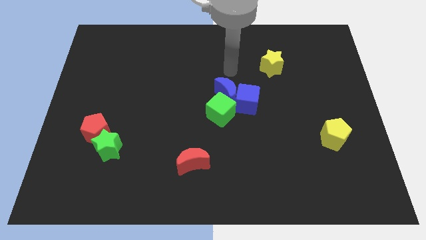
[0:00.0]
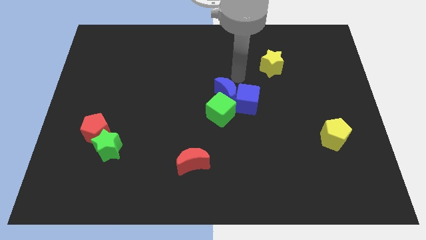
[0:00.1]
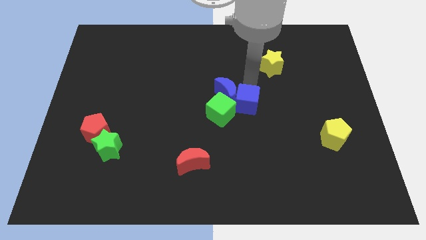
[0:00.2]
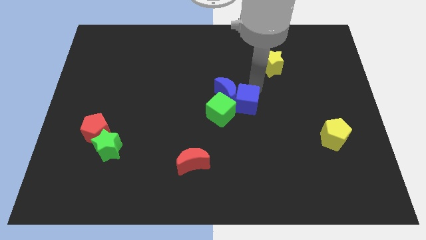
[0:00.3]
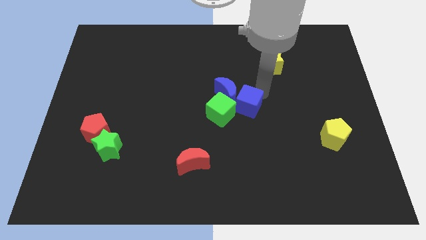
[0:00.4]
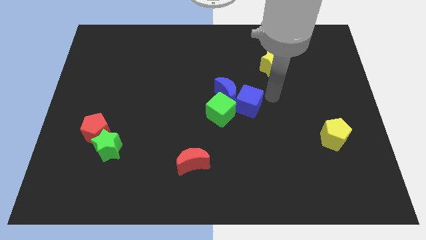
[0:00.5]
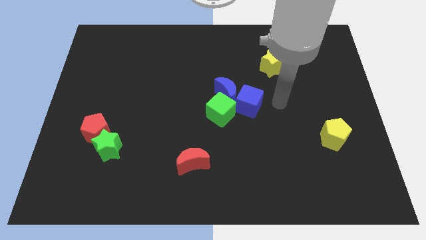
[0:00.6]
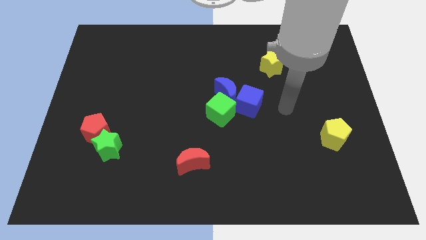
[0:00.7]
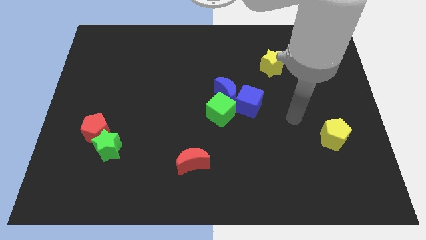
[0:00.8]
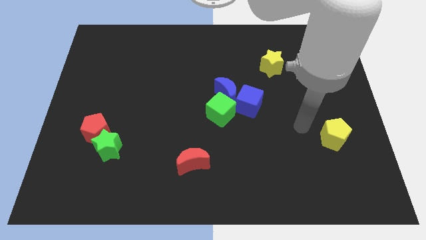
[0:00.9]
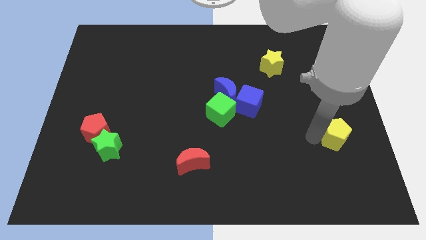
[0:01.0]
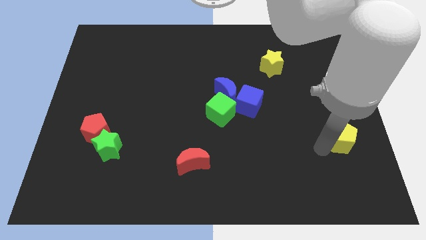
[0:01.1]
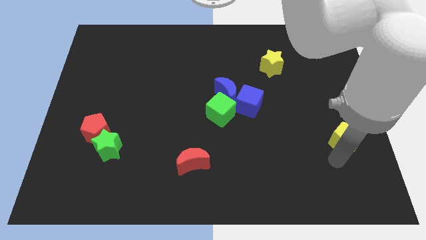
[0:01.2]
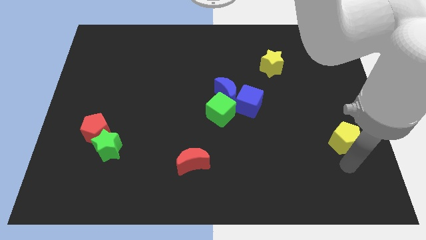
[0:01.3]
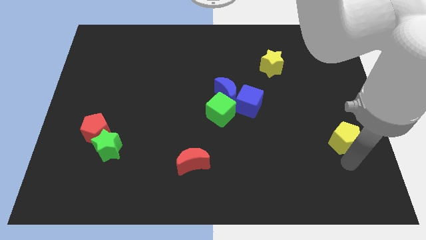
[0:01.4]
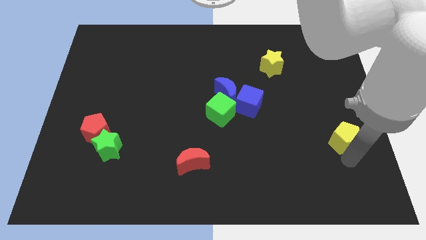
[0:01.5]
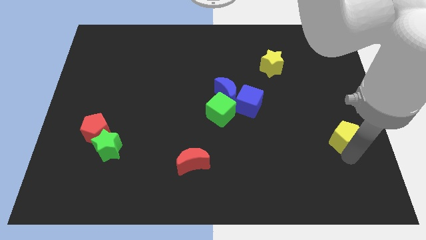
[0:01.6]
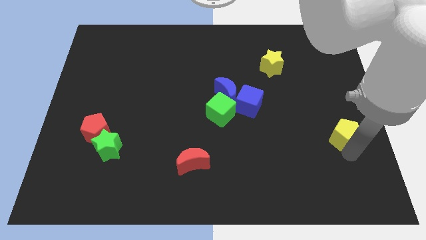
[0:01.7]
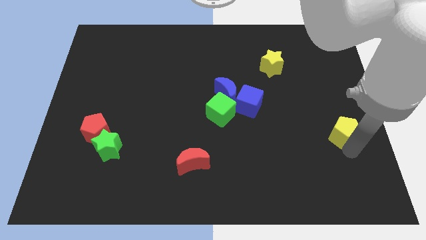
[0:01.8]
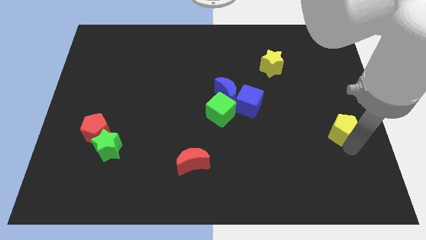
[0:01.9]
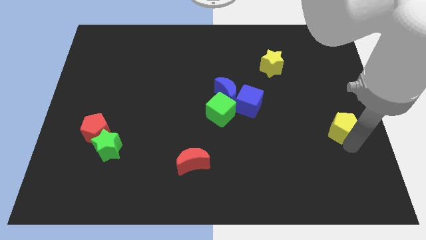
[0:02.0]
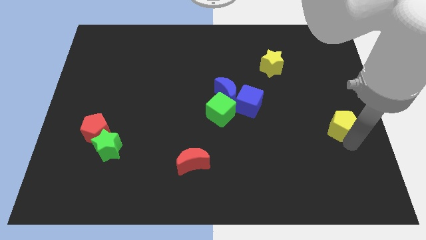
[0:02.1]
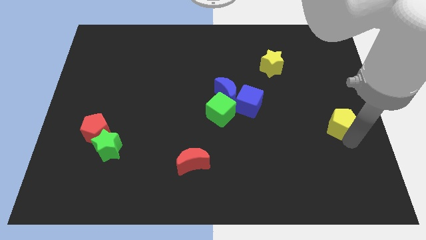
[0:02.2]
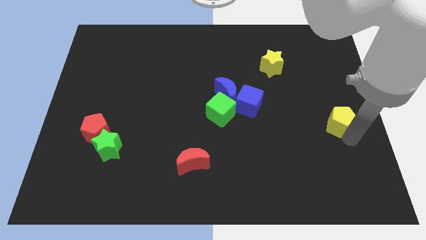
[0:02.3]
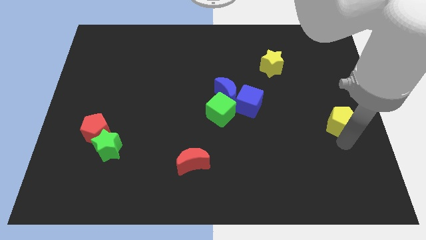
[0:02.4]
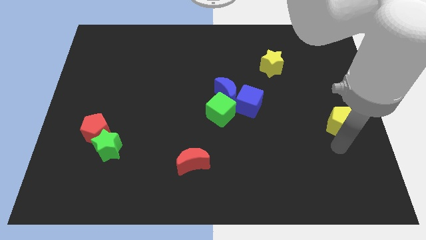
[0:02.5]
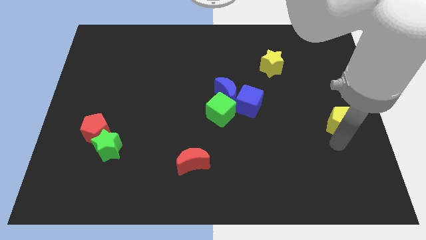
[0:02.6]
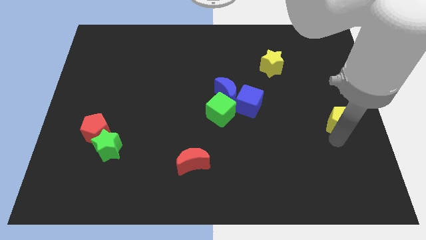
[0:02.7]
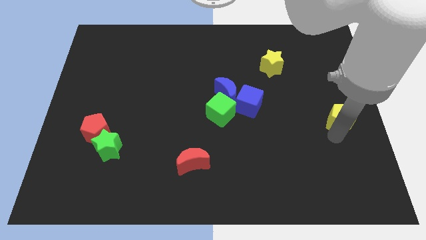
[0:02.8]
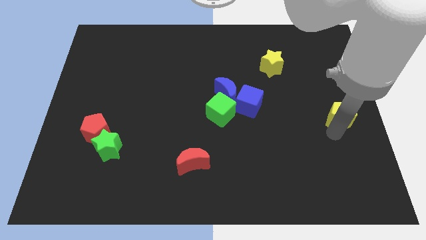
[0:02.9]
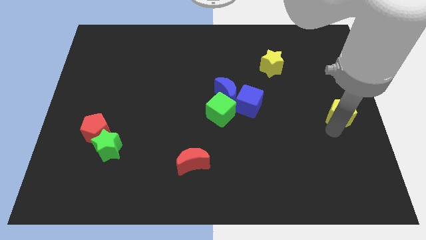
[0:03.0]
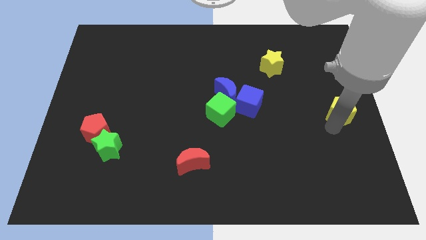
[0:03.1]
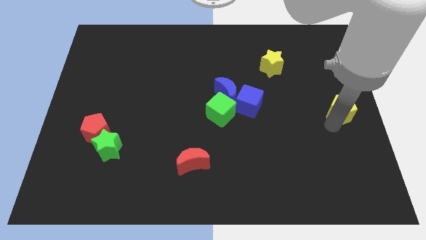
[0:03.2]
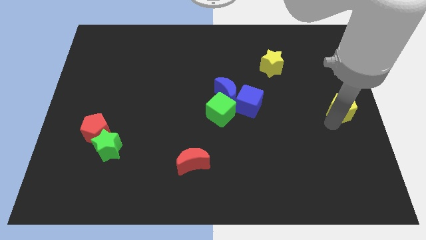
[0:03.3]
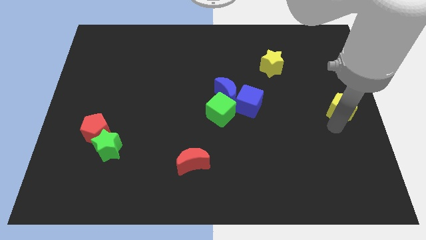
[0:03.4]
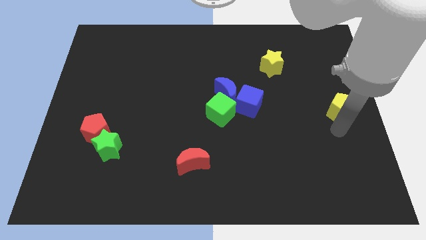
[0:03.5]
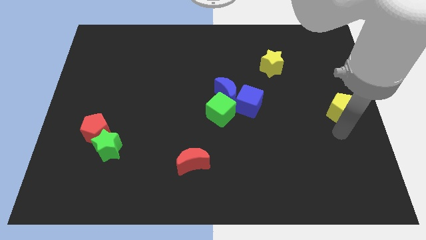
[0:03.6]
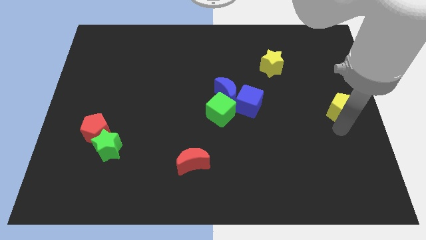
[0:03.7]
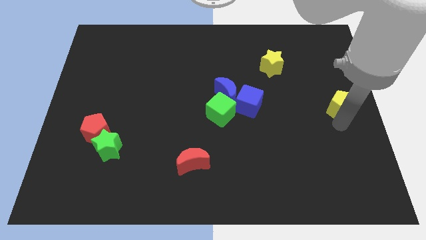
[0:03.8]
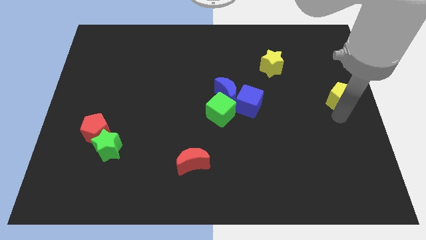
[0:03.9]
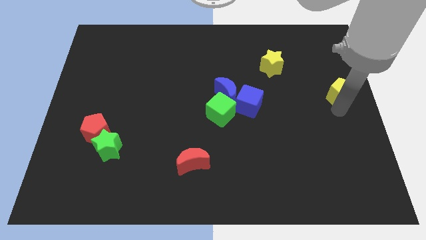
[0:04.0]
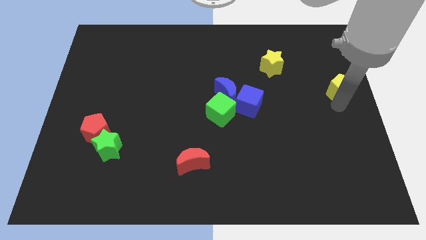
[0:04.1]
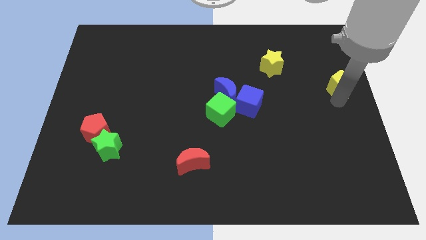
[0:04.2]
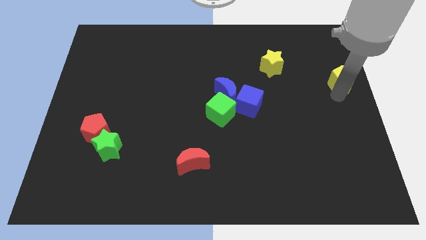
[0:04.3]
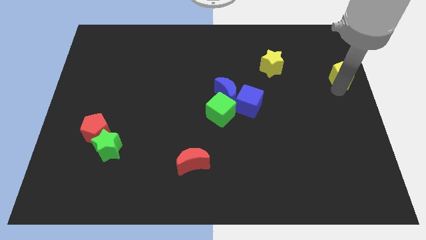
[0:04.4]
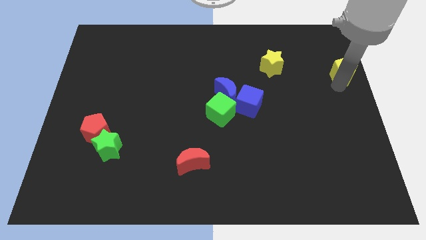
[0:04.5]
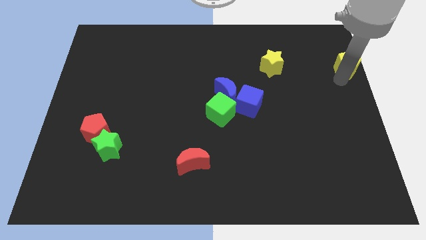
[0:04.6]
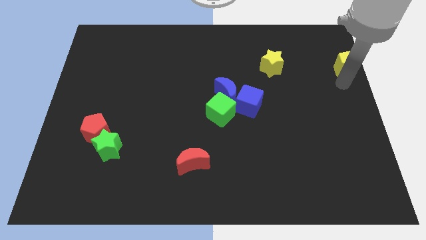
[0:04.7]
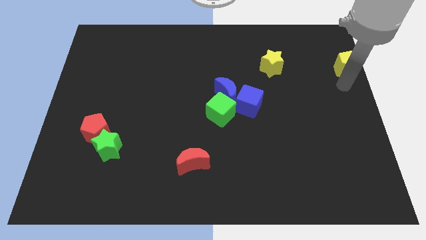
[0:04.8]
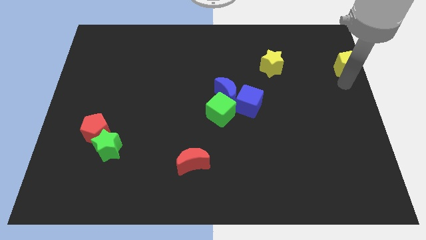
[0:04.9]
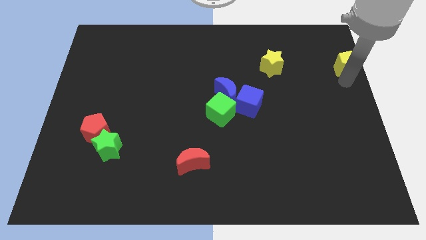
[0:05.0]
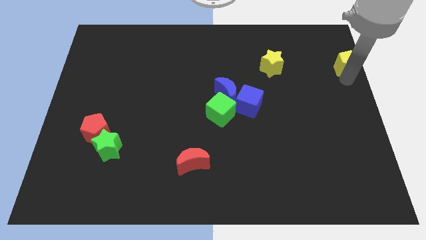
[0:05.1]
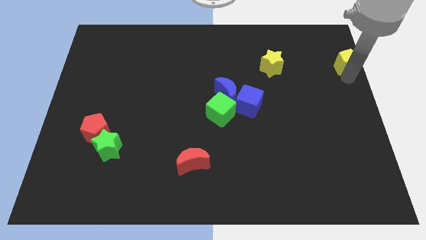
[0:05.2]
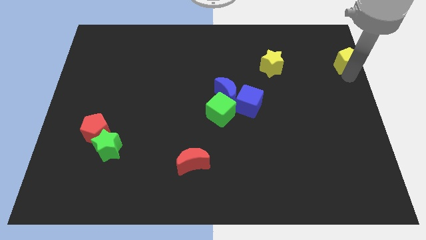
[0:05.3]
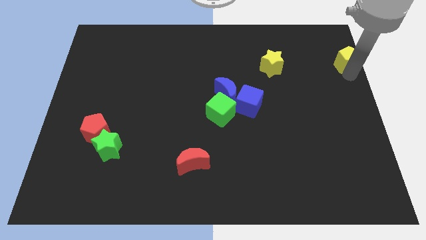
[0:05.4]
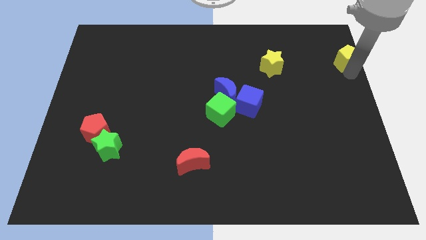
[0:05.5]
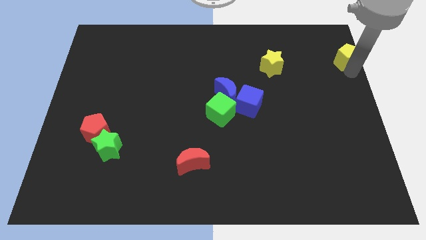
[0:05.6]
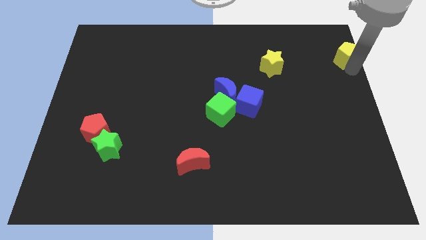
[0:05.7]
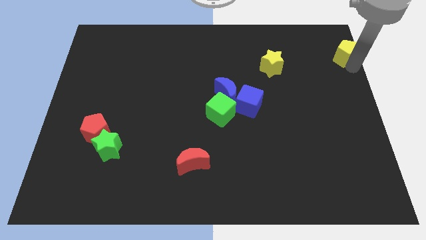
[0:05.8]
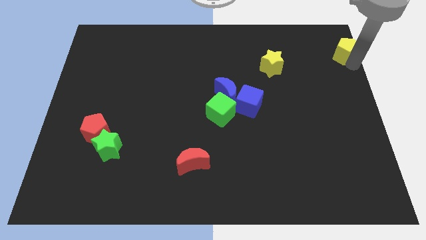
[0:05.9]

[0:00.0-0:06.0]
put the yellow pentagon to the top right corner

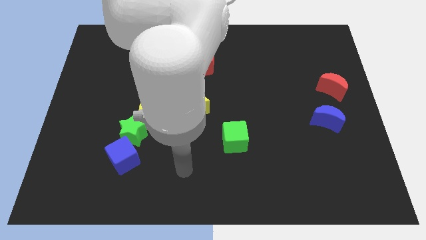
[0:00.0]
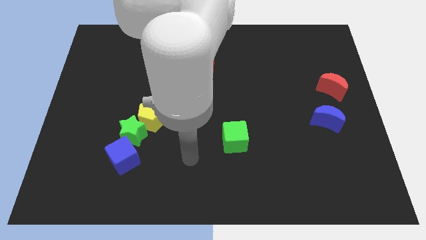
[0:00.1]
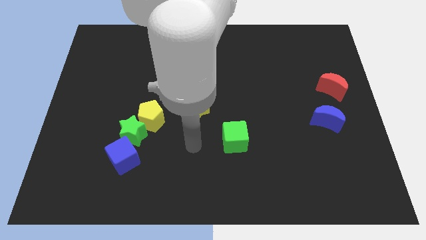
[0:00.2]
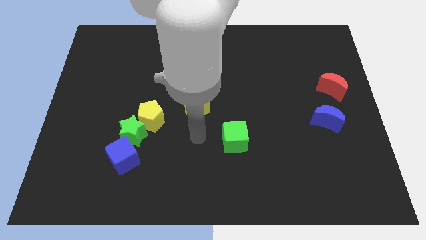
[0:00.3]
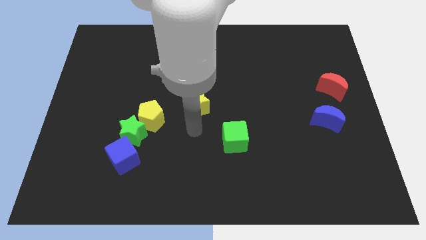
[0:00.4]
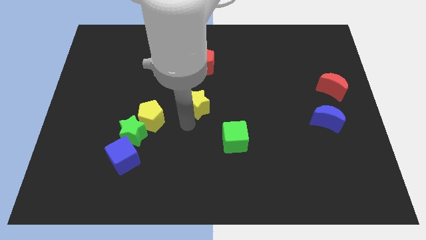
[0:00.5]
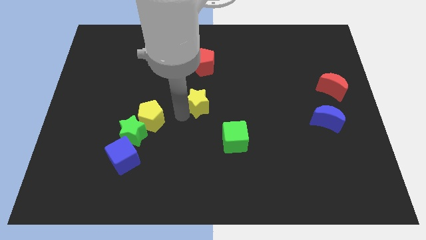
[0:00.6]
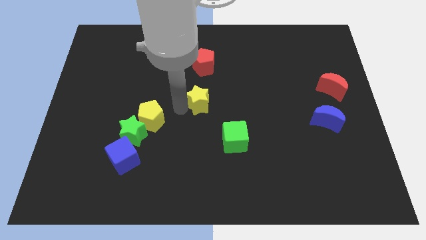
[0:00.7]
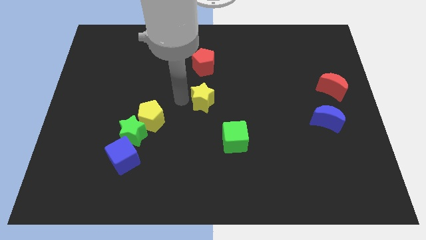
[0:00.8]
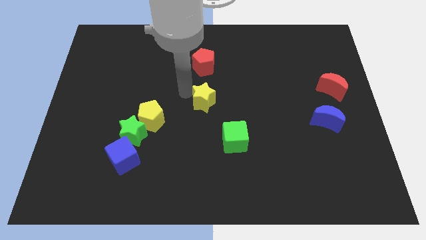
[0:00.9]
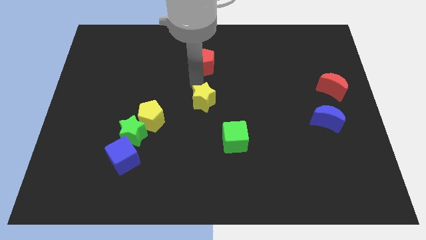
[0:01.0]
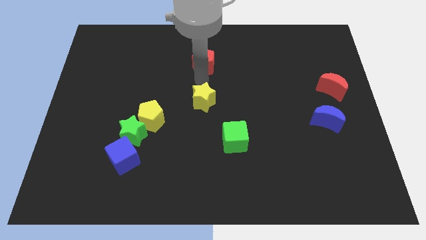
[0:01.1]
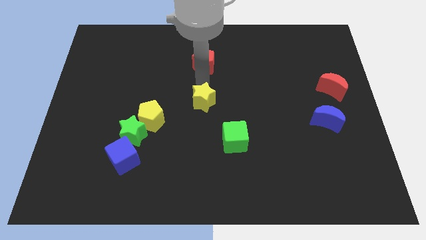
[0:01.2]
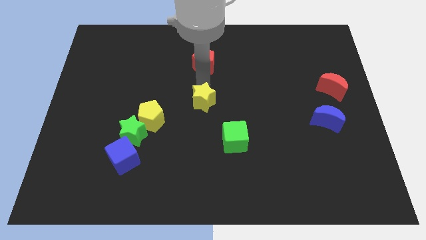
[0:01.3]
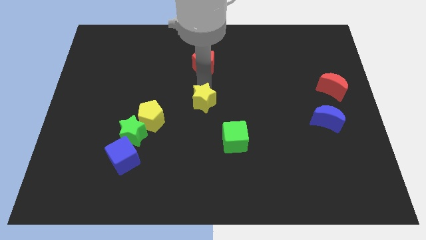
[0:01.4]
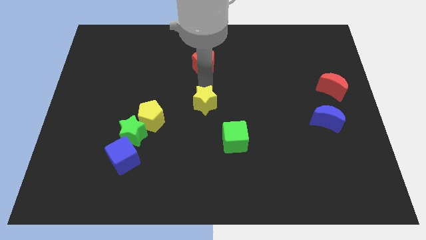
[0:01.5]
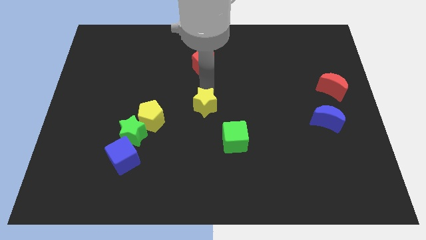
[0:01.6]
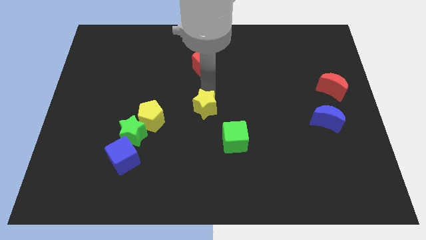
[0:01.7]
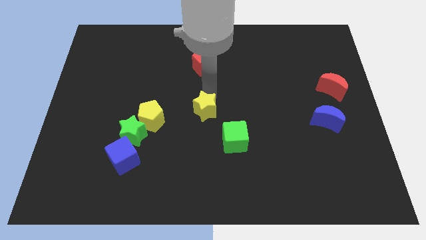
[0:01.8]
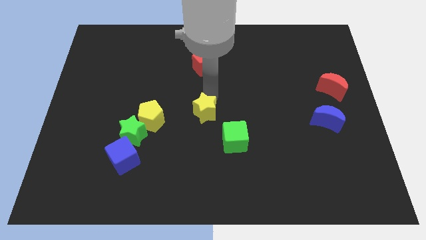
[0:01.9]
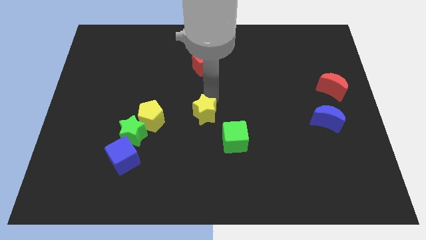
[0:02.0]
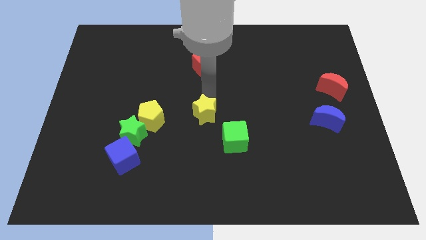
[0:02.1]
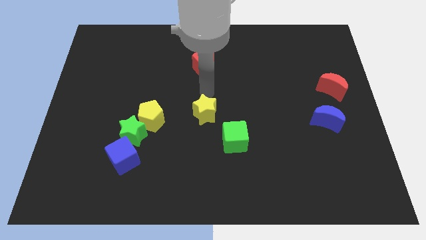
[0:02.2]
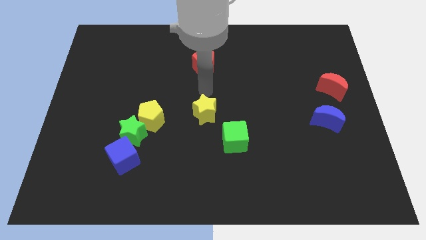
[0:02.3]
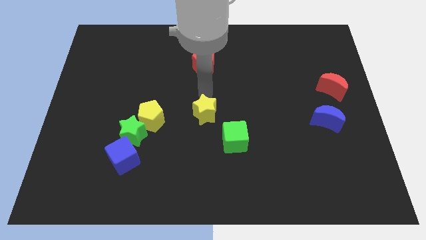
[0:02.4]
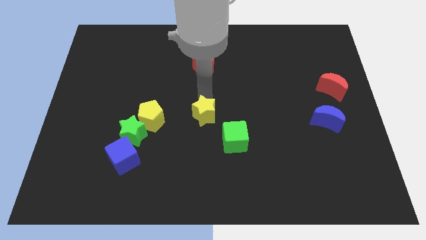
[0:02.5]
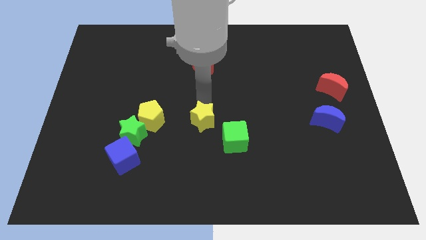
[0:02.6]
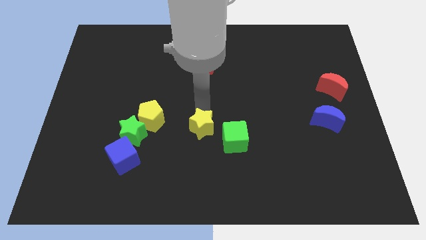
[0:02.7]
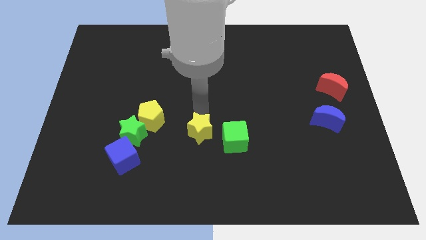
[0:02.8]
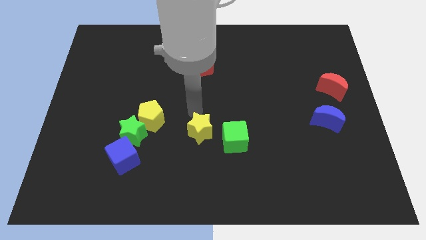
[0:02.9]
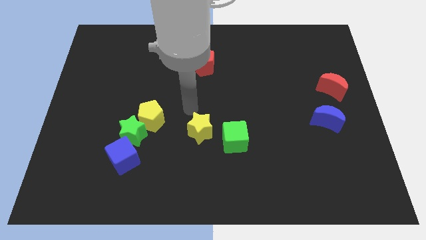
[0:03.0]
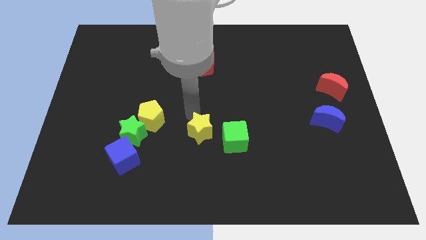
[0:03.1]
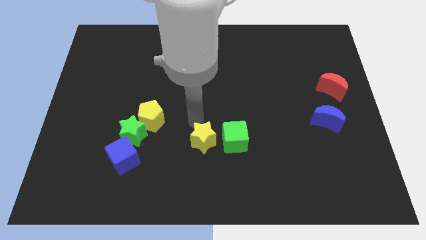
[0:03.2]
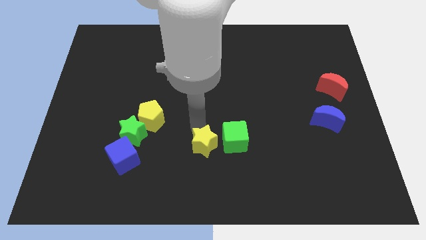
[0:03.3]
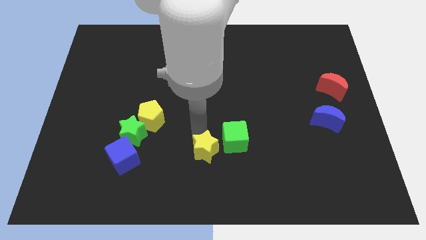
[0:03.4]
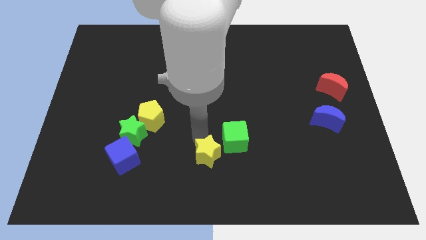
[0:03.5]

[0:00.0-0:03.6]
slide the yellow star to the bottom
